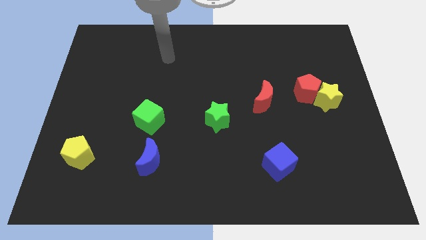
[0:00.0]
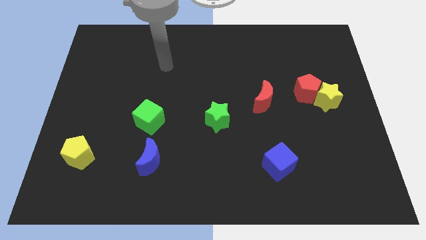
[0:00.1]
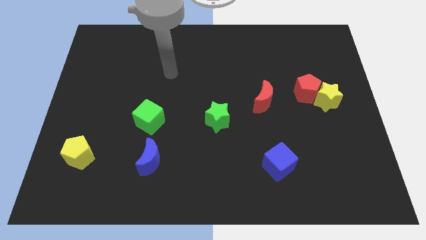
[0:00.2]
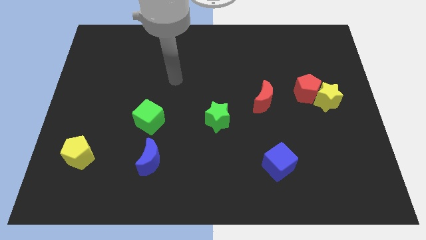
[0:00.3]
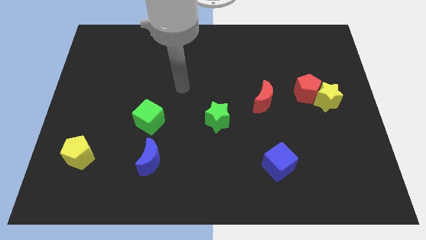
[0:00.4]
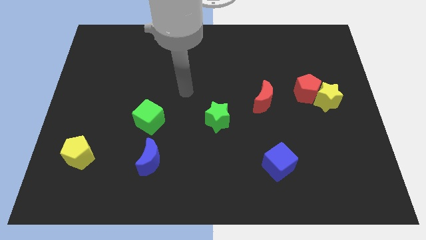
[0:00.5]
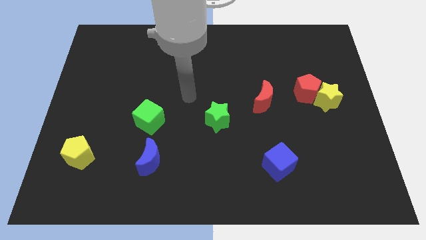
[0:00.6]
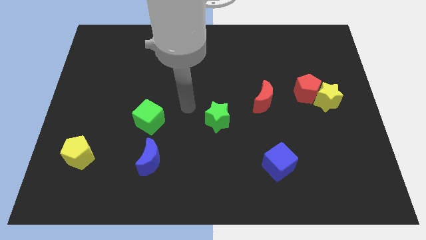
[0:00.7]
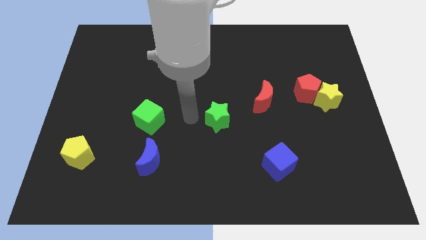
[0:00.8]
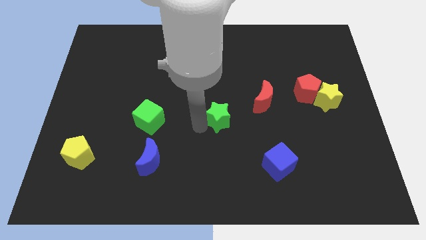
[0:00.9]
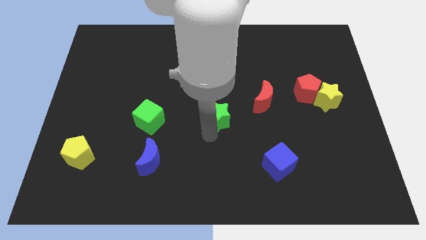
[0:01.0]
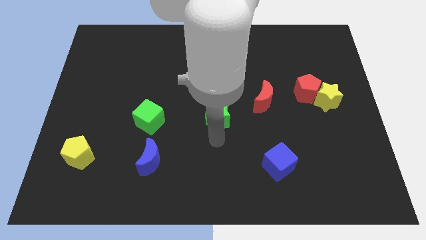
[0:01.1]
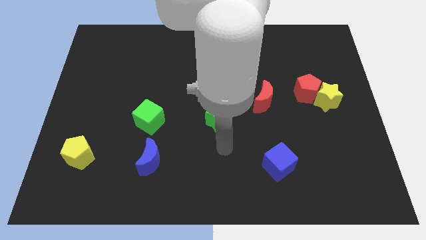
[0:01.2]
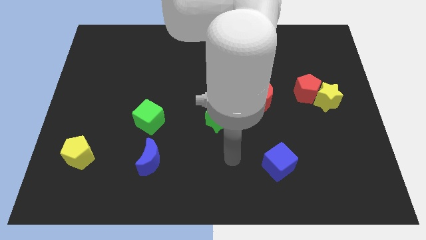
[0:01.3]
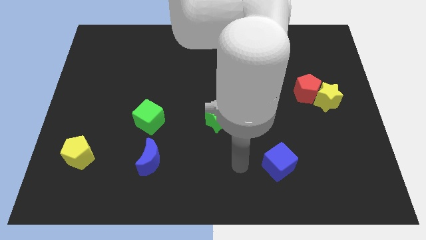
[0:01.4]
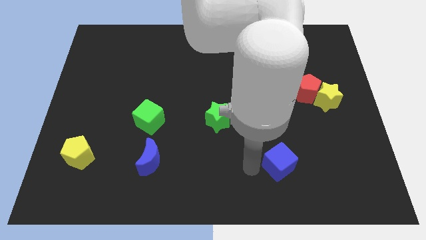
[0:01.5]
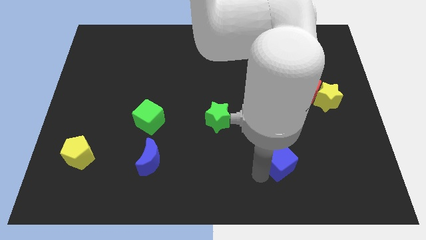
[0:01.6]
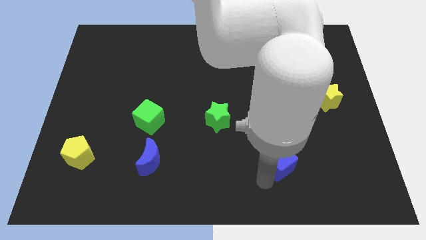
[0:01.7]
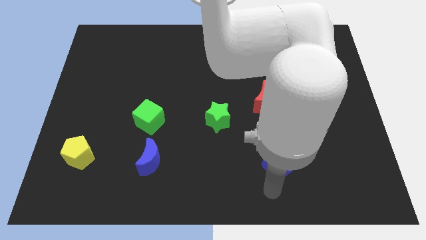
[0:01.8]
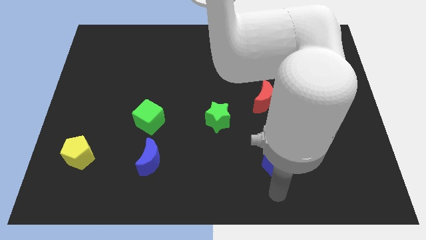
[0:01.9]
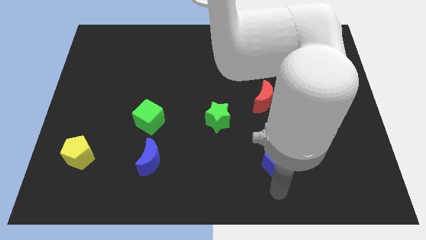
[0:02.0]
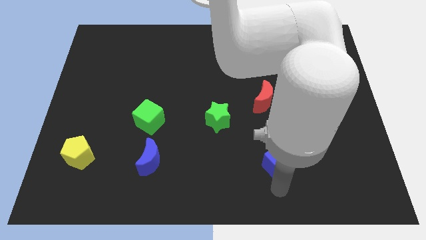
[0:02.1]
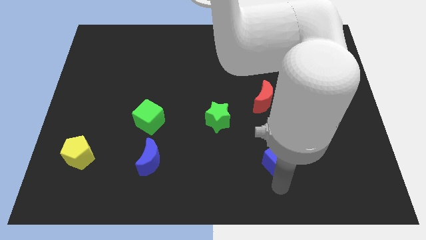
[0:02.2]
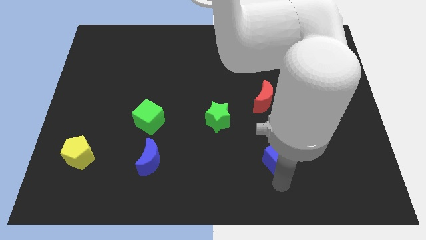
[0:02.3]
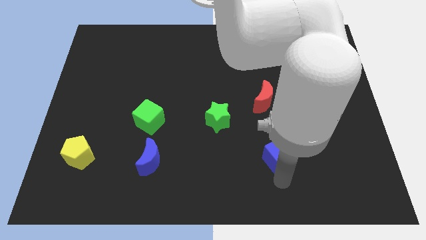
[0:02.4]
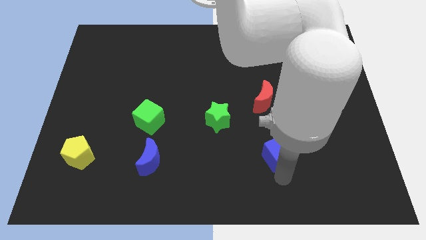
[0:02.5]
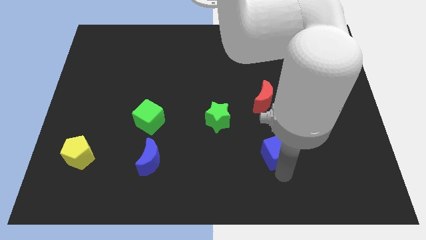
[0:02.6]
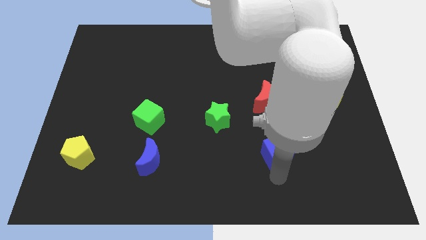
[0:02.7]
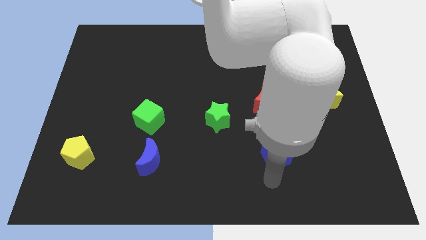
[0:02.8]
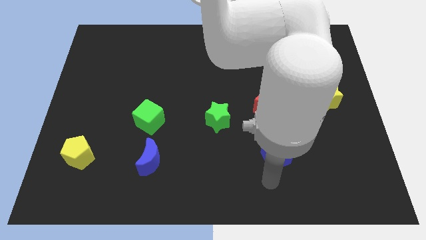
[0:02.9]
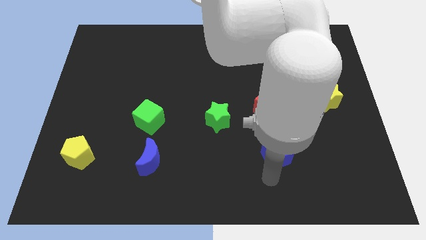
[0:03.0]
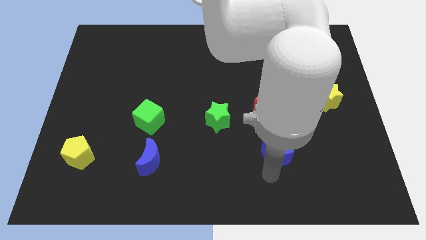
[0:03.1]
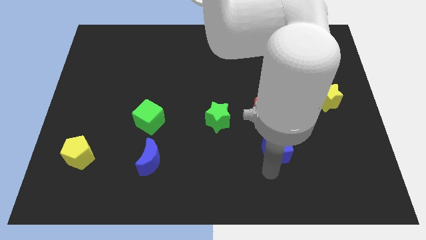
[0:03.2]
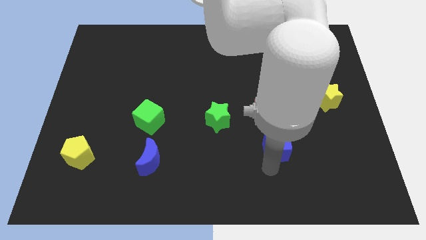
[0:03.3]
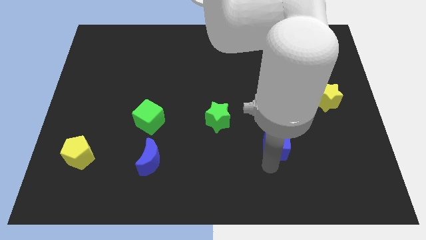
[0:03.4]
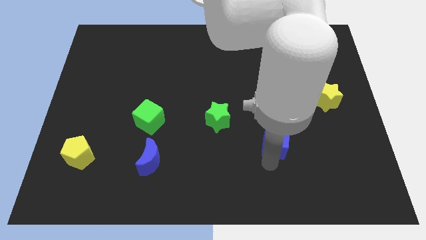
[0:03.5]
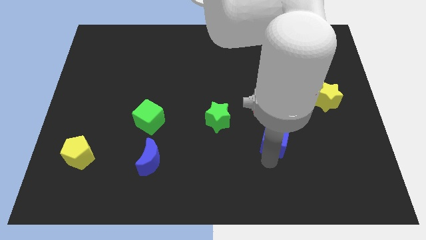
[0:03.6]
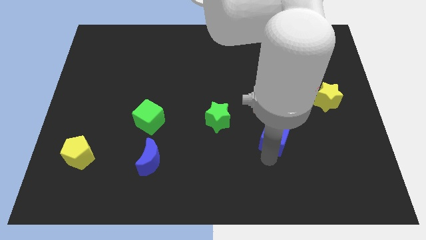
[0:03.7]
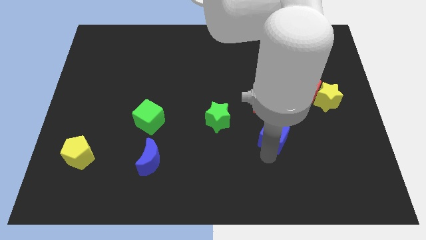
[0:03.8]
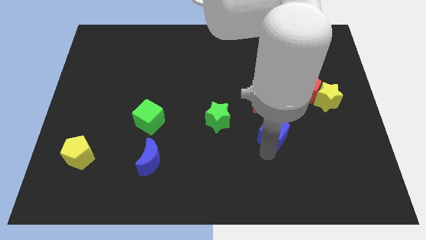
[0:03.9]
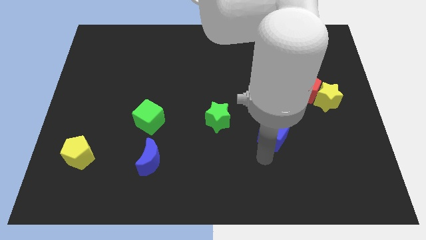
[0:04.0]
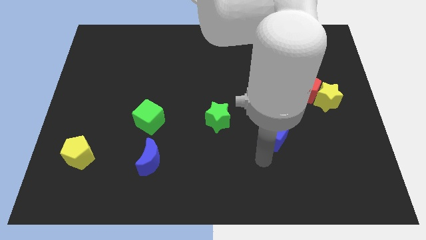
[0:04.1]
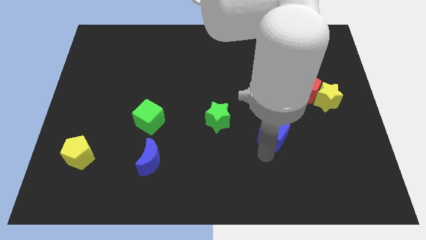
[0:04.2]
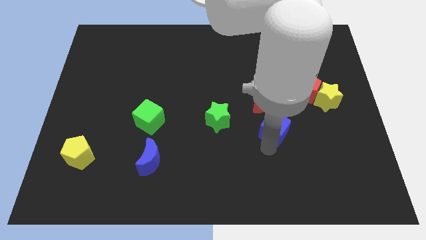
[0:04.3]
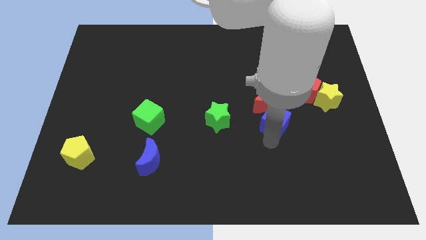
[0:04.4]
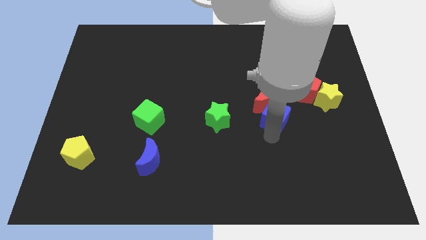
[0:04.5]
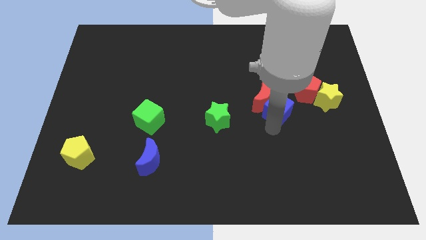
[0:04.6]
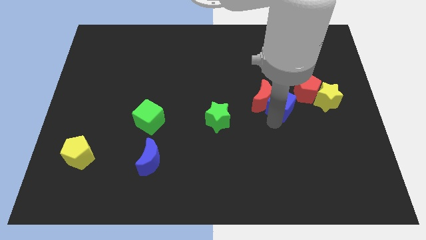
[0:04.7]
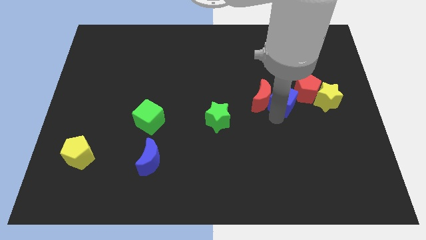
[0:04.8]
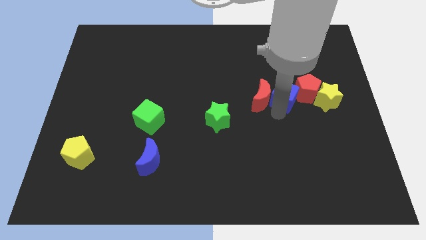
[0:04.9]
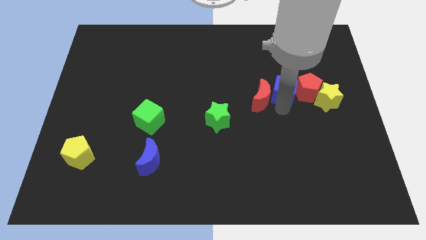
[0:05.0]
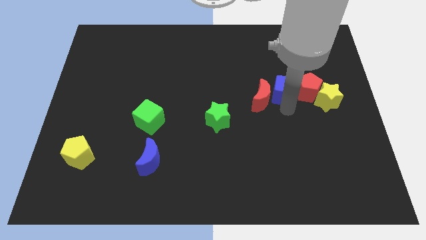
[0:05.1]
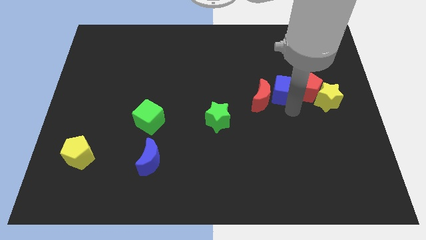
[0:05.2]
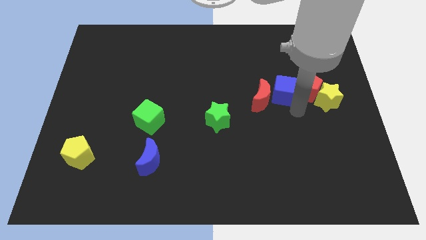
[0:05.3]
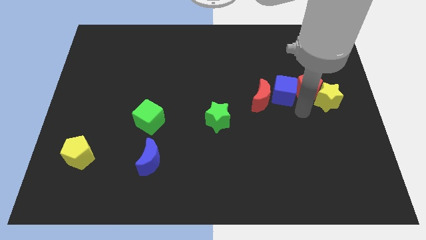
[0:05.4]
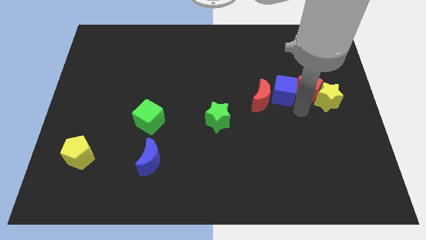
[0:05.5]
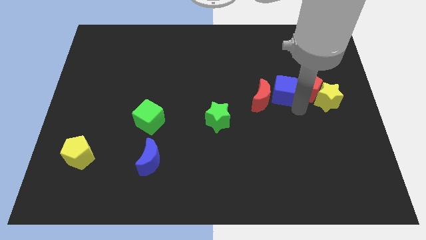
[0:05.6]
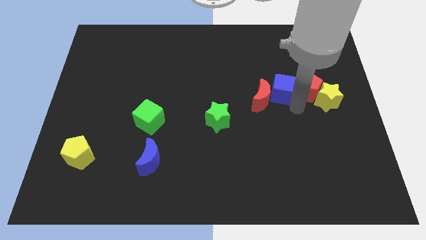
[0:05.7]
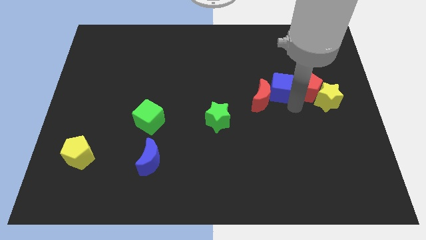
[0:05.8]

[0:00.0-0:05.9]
slide the blue cube upwards

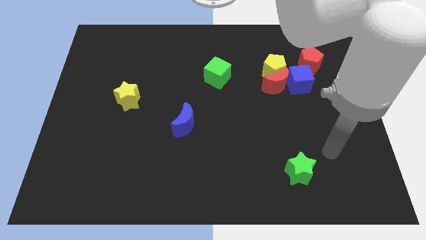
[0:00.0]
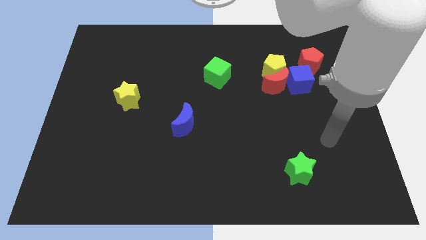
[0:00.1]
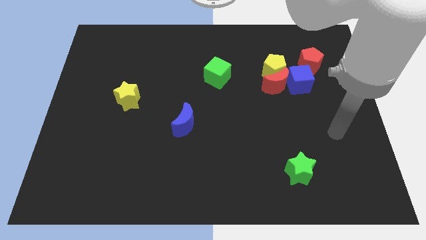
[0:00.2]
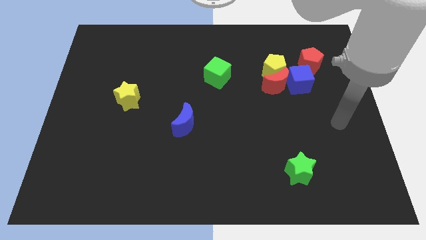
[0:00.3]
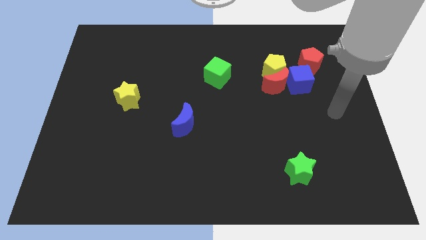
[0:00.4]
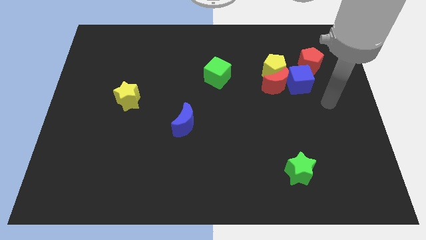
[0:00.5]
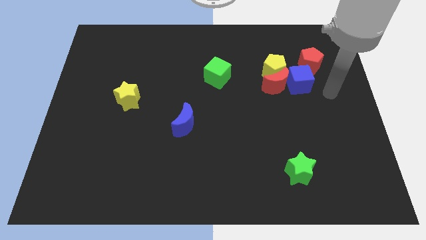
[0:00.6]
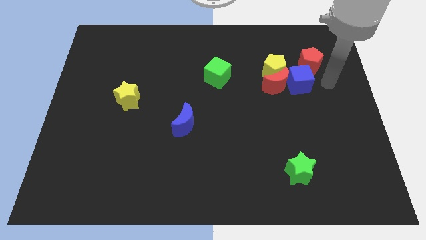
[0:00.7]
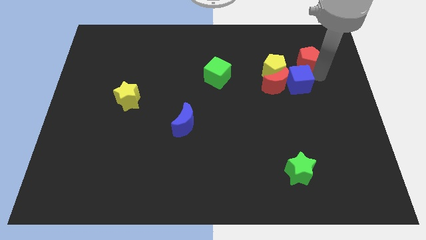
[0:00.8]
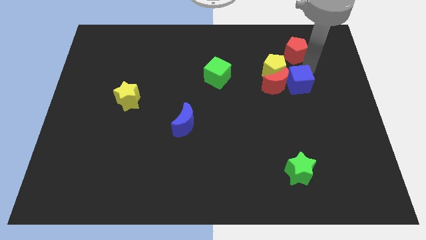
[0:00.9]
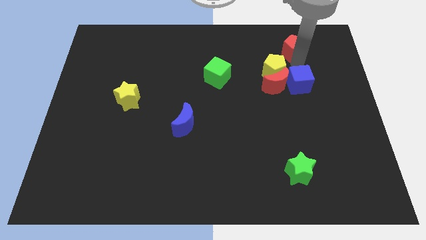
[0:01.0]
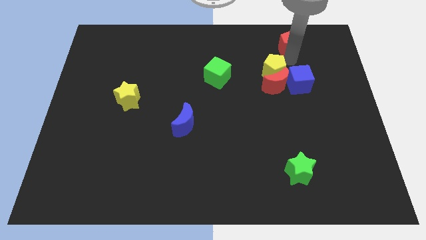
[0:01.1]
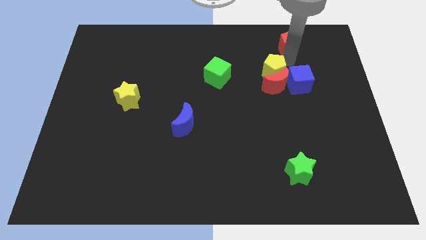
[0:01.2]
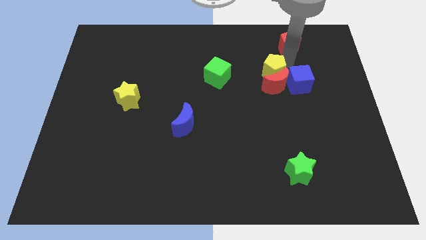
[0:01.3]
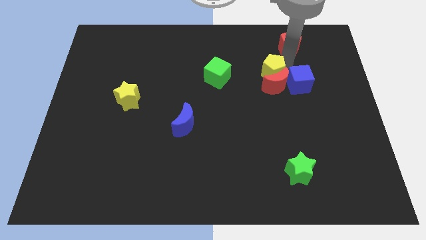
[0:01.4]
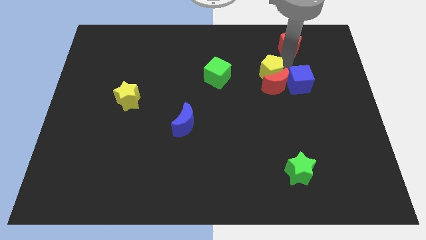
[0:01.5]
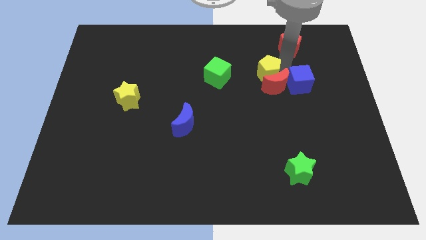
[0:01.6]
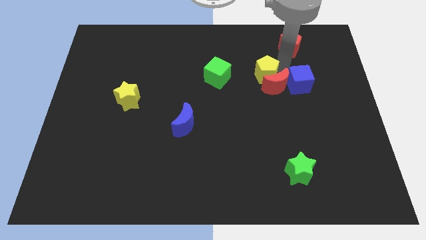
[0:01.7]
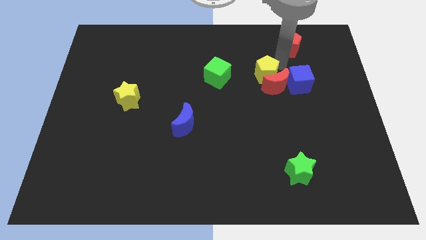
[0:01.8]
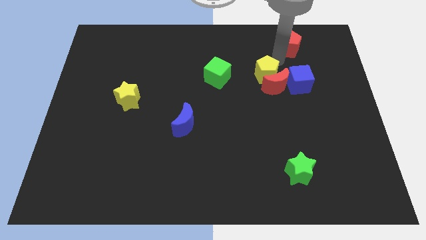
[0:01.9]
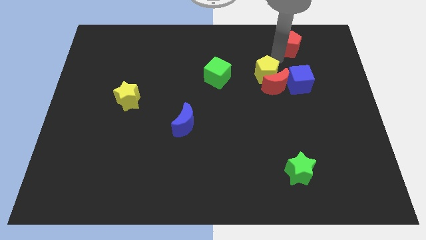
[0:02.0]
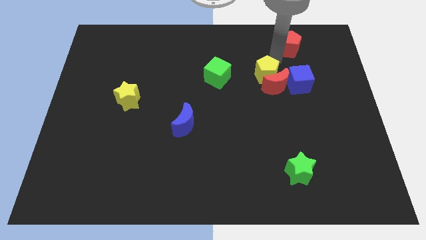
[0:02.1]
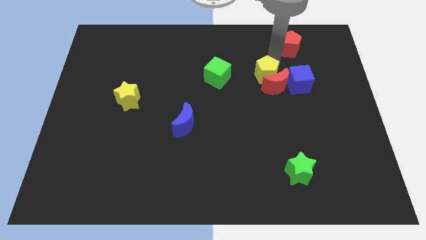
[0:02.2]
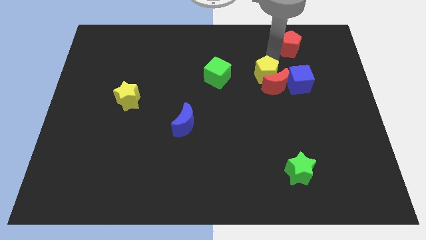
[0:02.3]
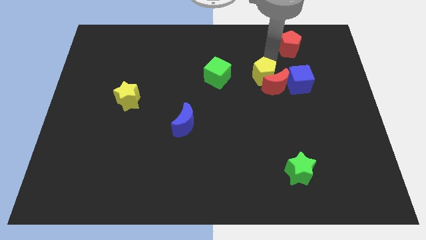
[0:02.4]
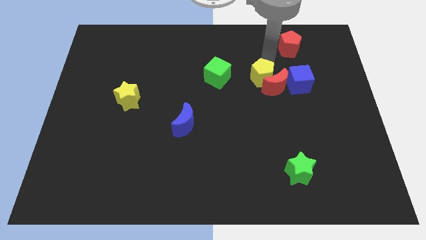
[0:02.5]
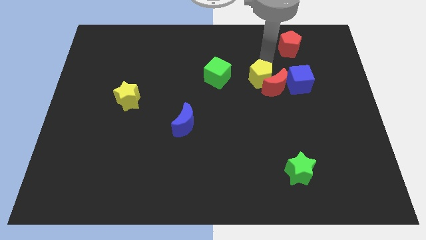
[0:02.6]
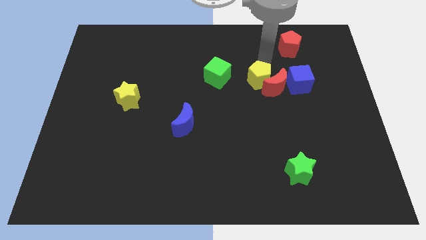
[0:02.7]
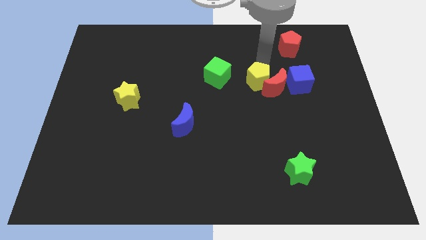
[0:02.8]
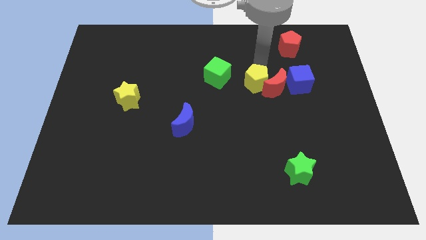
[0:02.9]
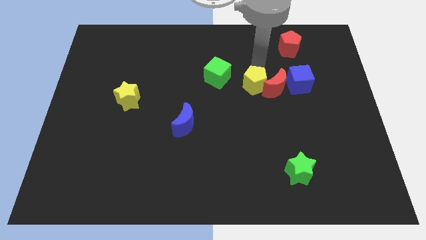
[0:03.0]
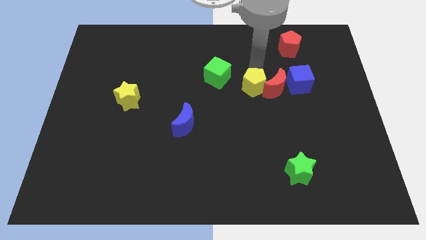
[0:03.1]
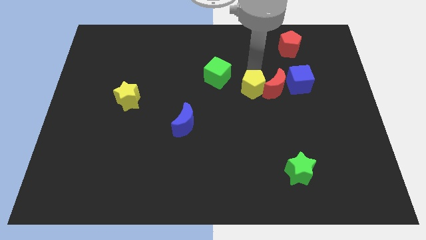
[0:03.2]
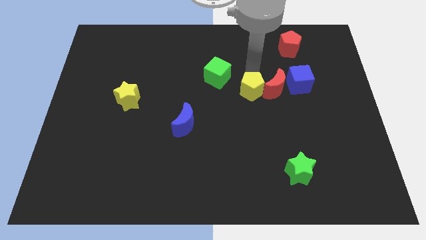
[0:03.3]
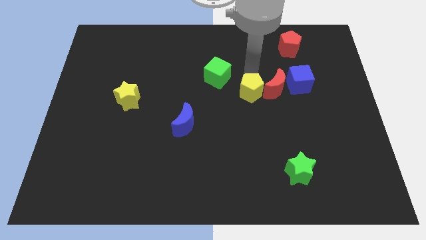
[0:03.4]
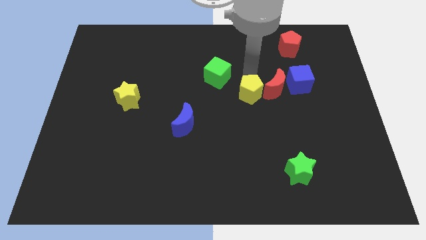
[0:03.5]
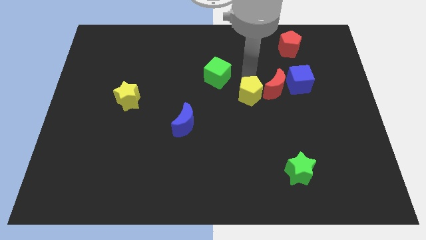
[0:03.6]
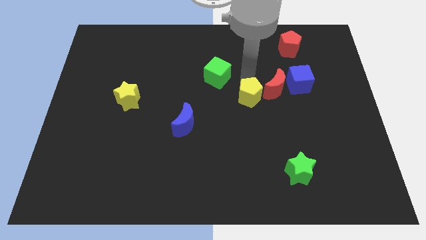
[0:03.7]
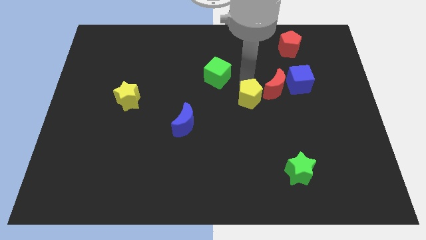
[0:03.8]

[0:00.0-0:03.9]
slightly slide the yellow pentagon down
